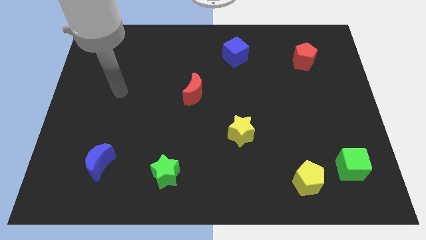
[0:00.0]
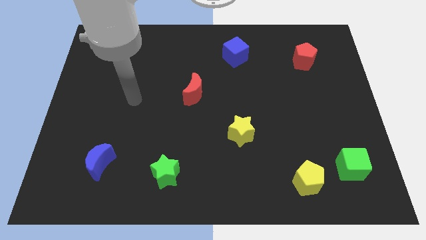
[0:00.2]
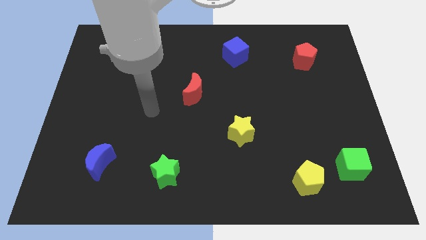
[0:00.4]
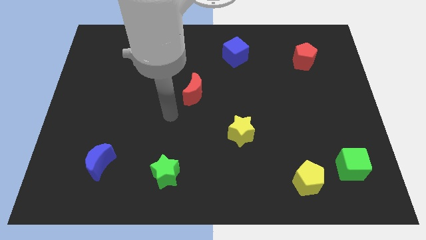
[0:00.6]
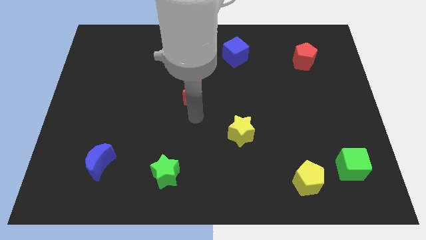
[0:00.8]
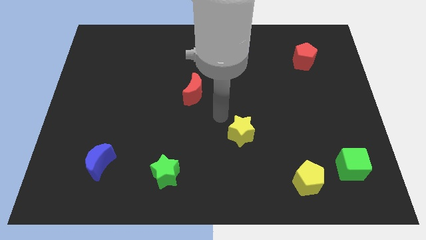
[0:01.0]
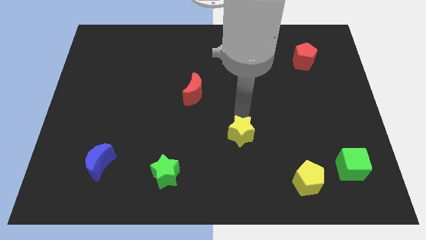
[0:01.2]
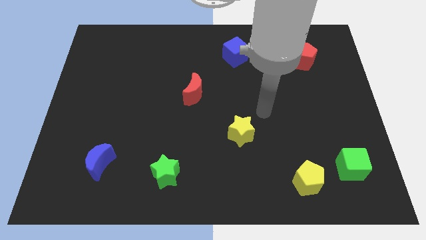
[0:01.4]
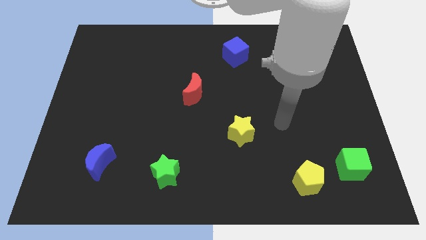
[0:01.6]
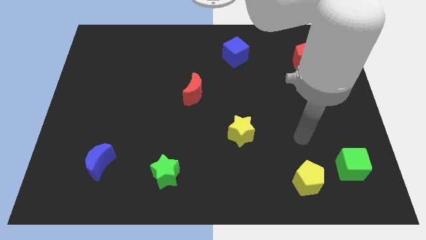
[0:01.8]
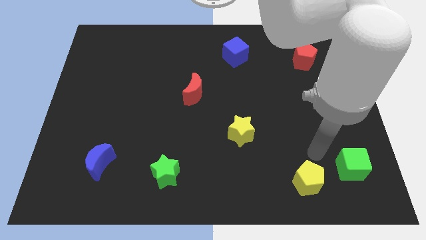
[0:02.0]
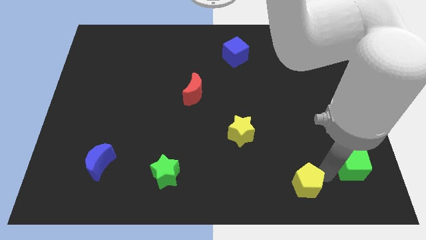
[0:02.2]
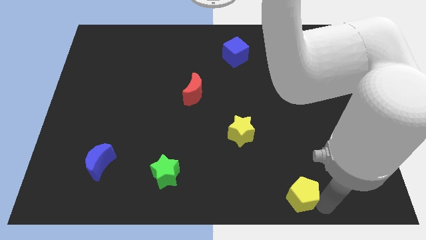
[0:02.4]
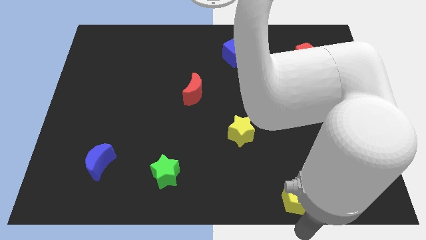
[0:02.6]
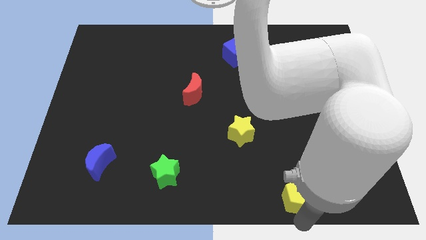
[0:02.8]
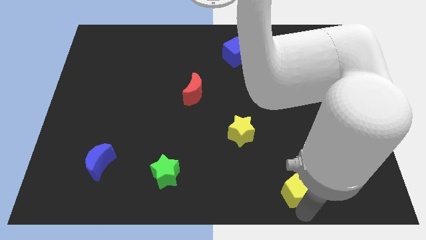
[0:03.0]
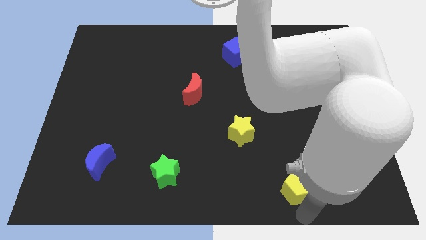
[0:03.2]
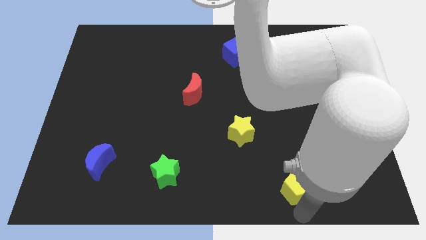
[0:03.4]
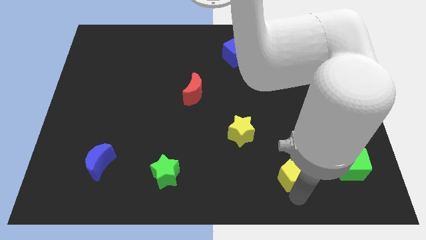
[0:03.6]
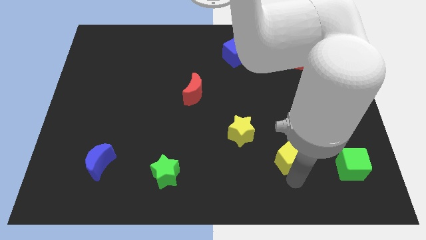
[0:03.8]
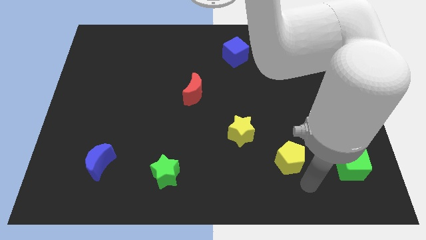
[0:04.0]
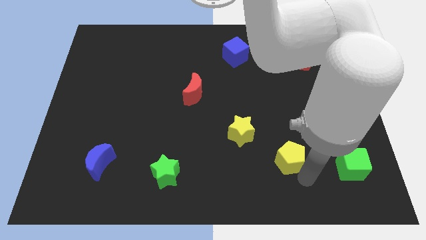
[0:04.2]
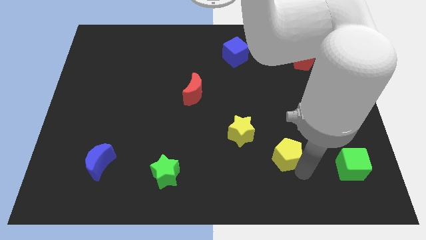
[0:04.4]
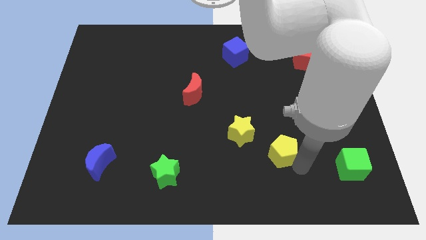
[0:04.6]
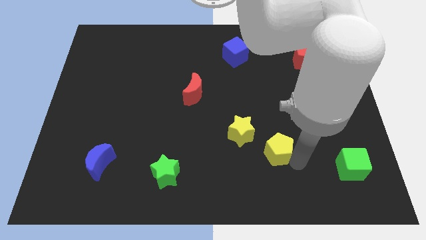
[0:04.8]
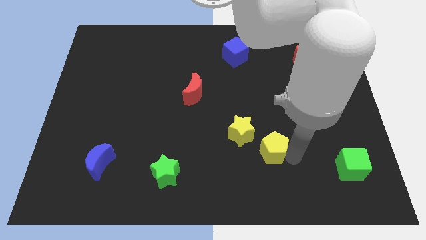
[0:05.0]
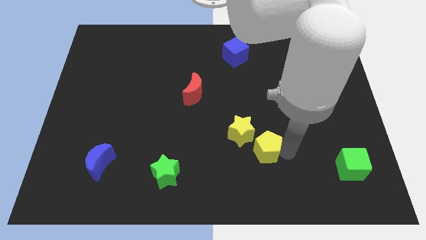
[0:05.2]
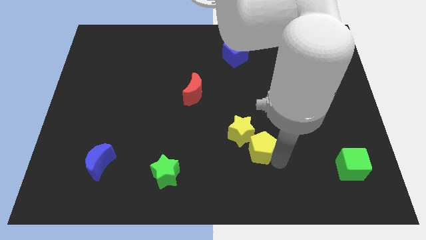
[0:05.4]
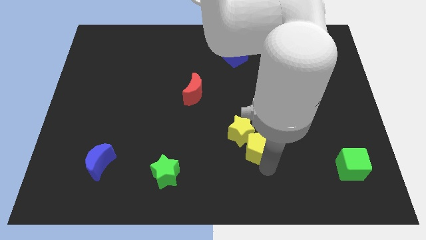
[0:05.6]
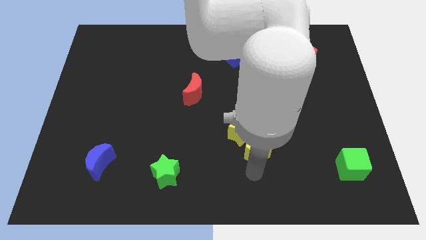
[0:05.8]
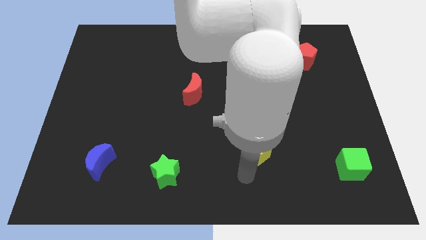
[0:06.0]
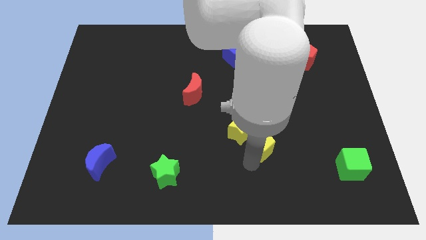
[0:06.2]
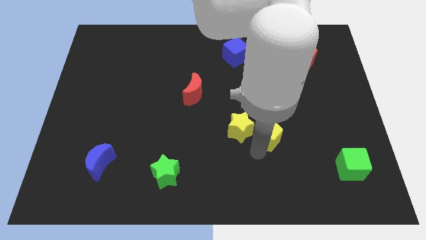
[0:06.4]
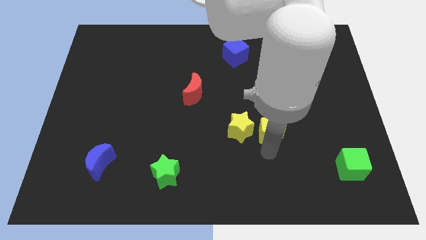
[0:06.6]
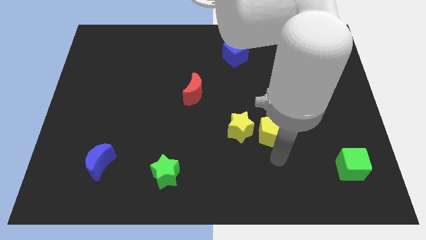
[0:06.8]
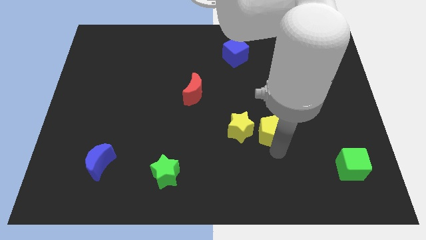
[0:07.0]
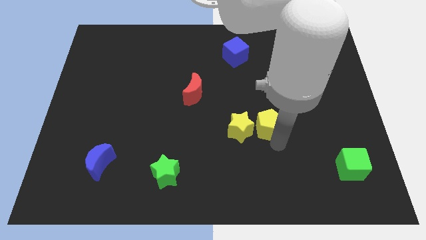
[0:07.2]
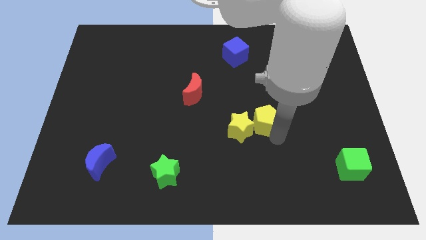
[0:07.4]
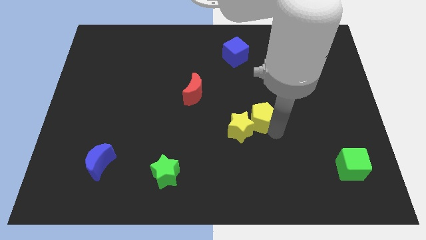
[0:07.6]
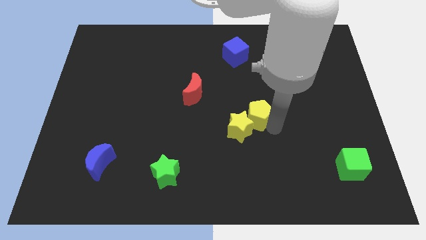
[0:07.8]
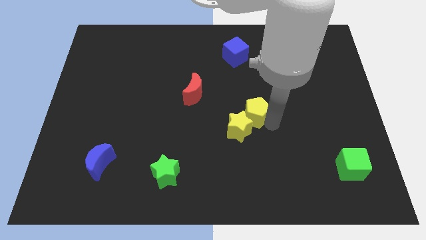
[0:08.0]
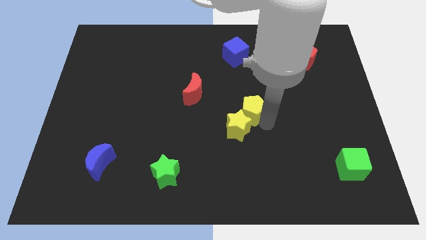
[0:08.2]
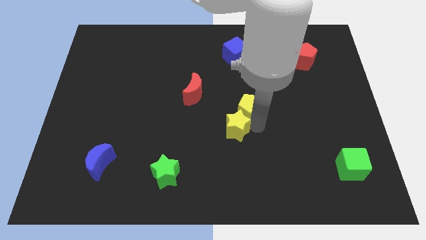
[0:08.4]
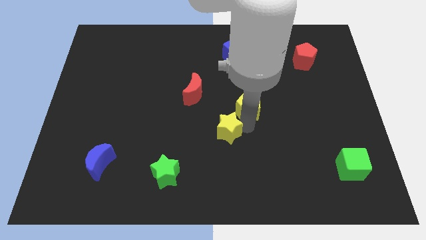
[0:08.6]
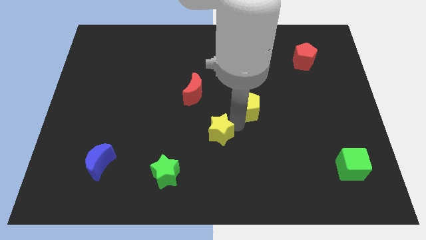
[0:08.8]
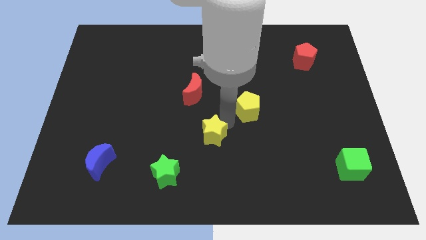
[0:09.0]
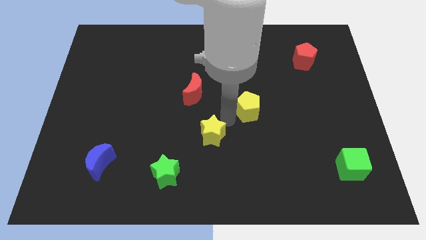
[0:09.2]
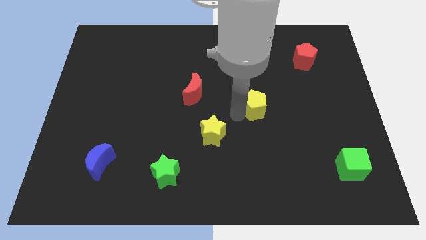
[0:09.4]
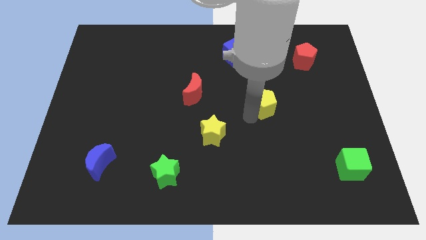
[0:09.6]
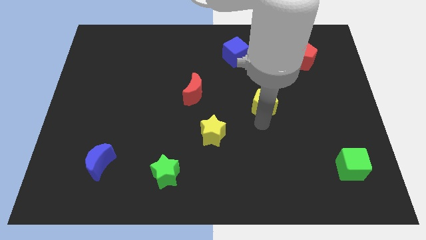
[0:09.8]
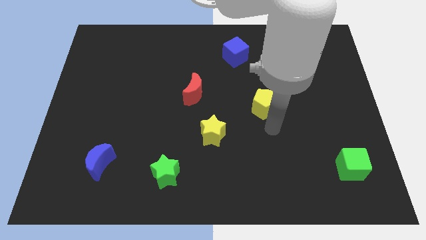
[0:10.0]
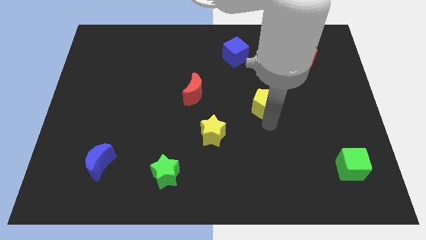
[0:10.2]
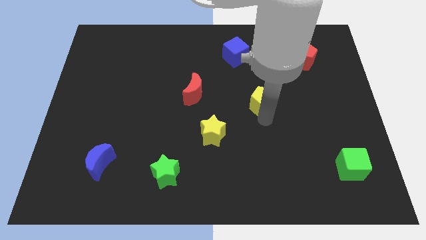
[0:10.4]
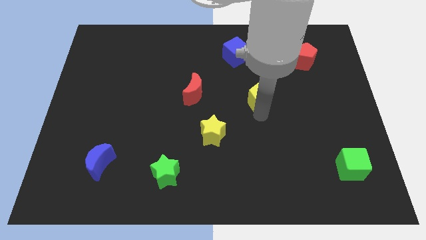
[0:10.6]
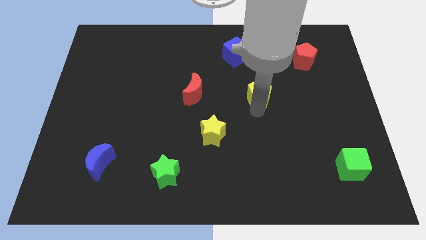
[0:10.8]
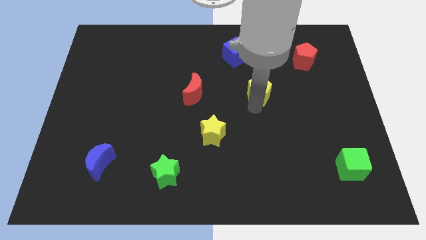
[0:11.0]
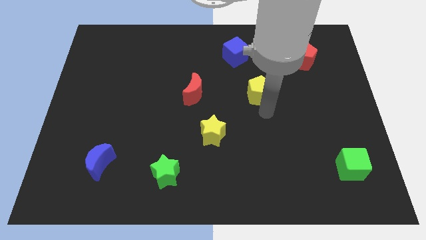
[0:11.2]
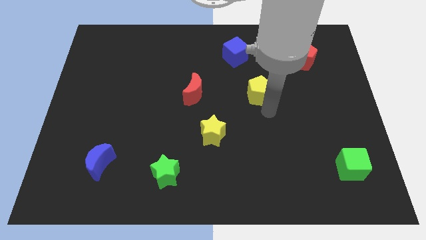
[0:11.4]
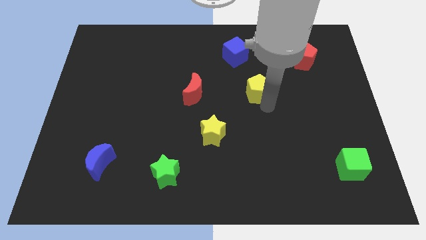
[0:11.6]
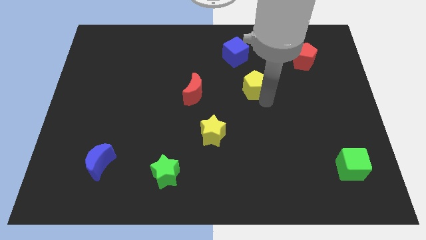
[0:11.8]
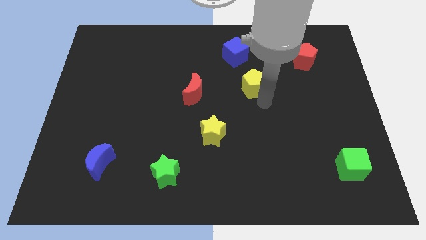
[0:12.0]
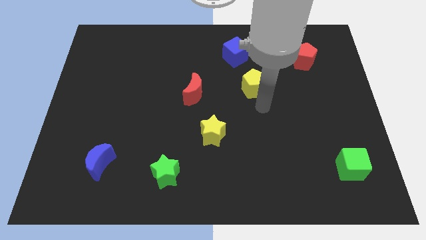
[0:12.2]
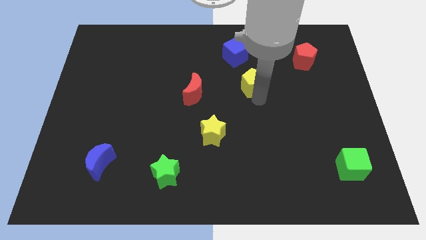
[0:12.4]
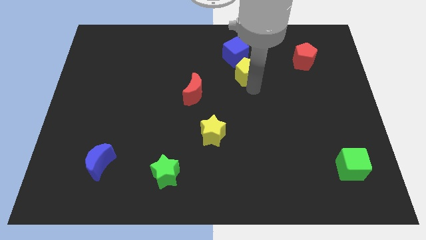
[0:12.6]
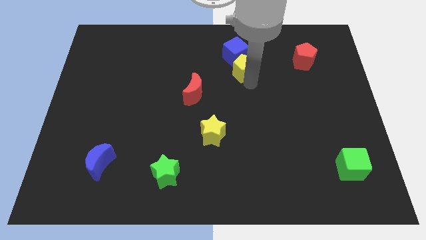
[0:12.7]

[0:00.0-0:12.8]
put the yellow pentagon close to the blue cube
